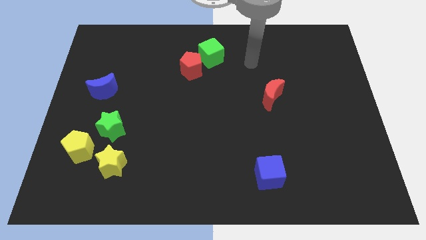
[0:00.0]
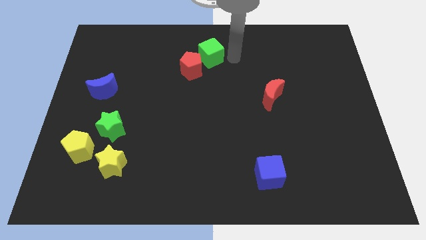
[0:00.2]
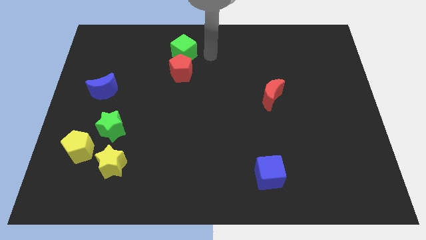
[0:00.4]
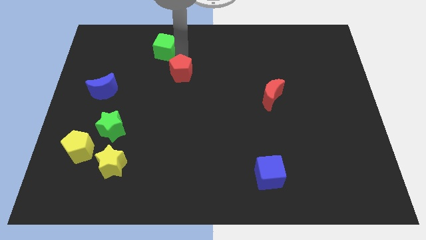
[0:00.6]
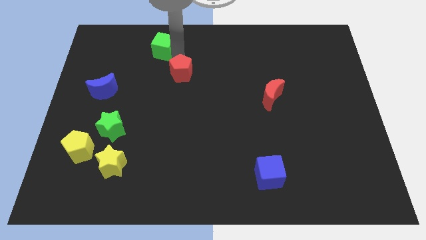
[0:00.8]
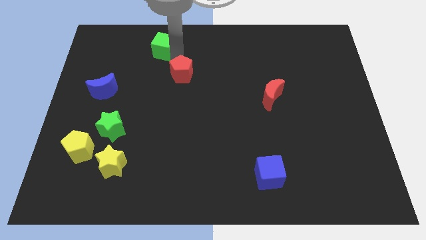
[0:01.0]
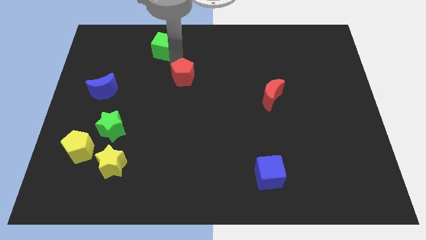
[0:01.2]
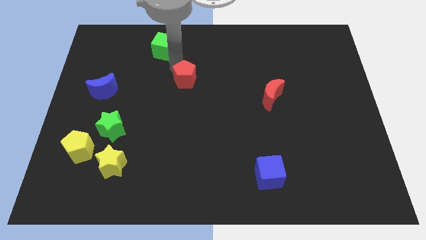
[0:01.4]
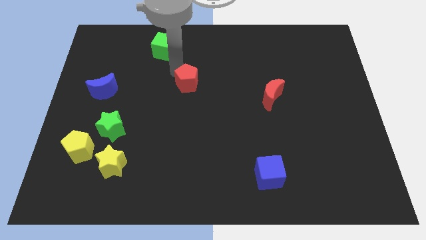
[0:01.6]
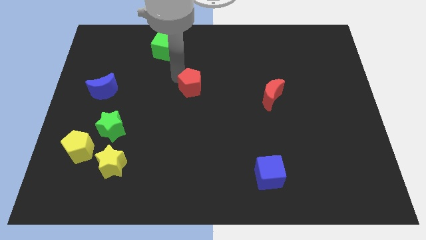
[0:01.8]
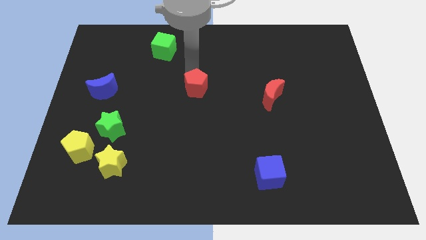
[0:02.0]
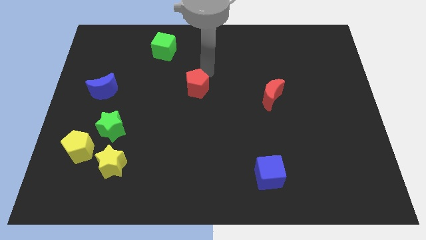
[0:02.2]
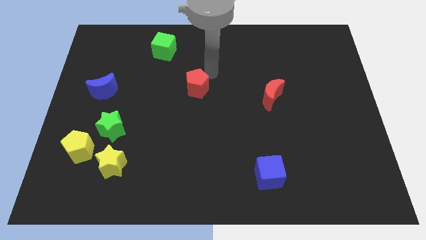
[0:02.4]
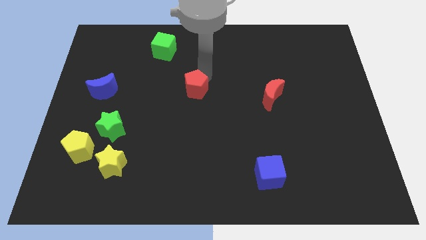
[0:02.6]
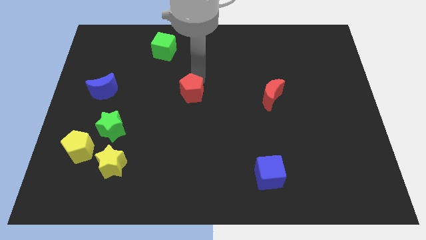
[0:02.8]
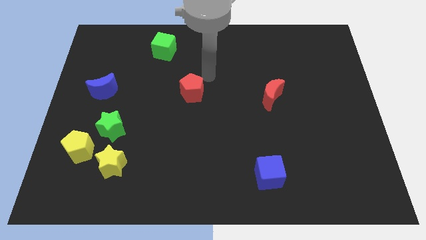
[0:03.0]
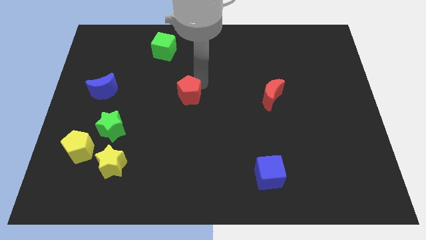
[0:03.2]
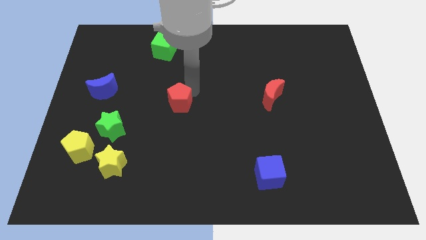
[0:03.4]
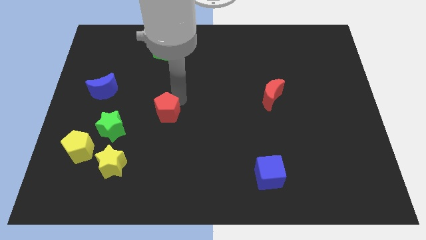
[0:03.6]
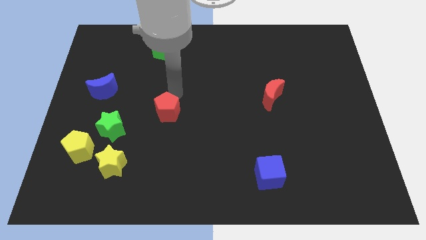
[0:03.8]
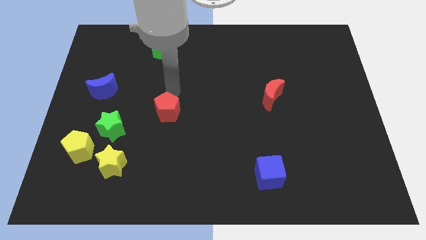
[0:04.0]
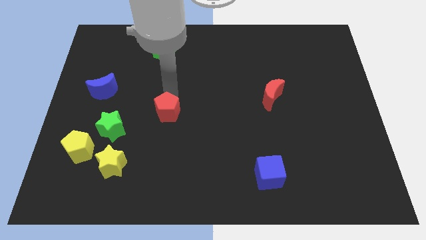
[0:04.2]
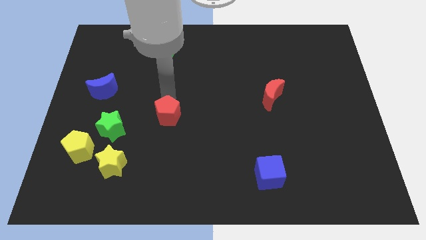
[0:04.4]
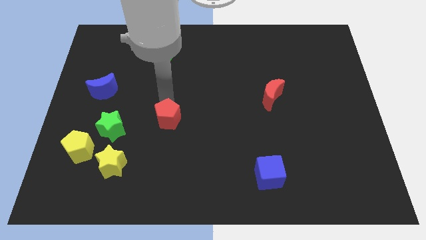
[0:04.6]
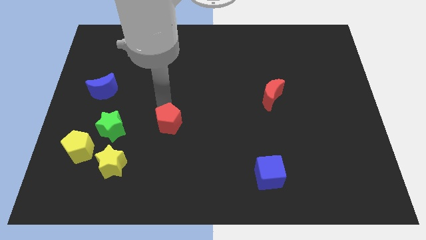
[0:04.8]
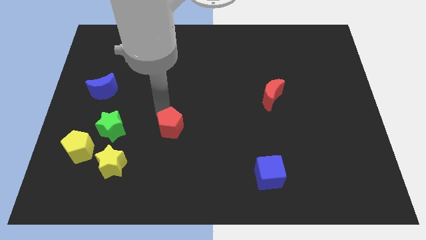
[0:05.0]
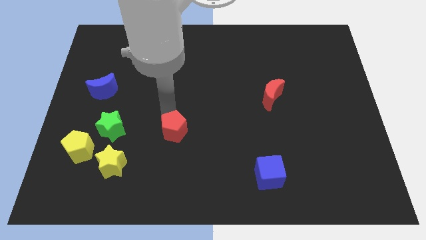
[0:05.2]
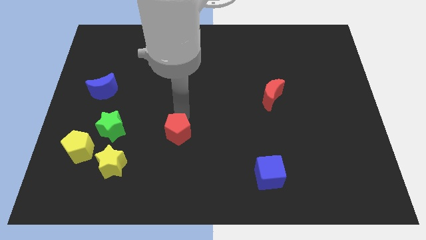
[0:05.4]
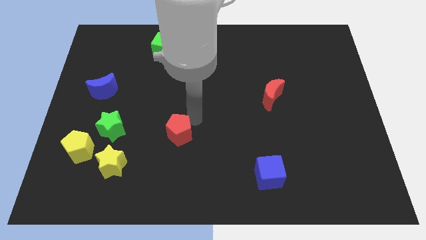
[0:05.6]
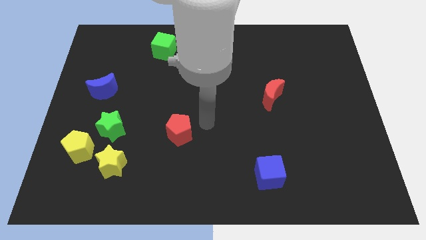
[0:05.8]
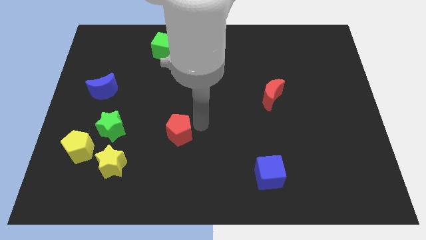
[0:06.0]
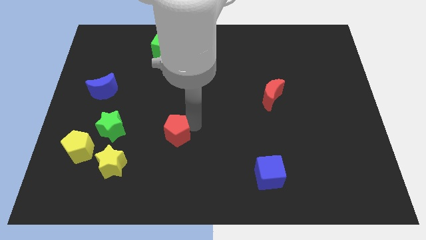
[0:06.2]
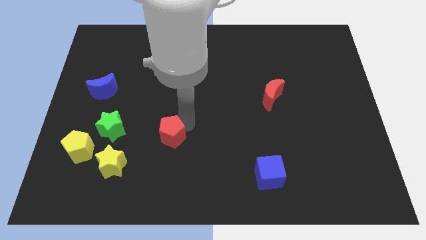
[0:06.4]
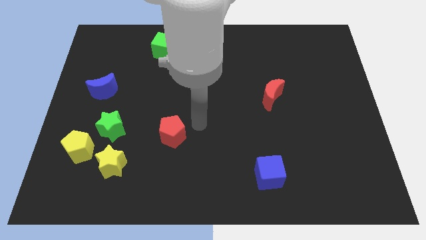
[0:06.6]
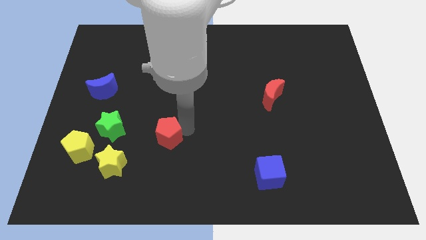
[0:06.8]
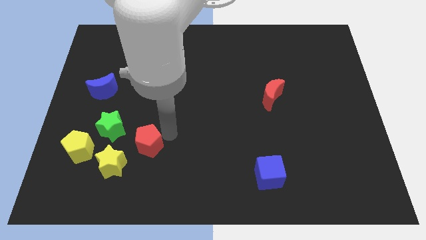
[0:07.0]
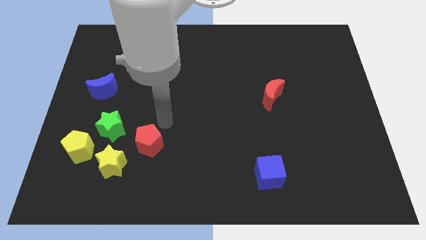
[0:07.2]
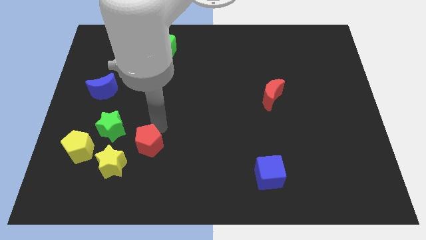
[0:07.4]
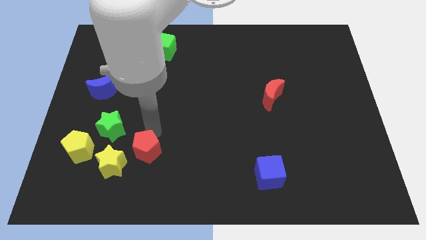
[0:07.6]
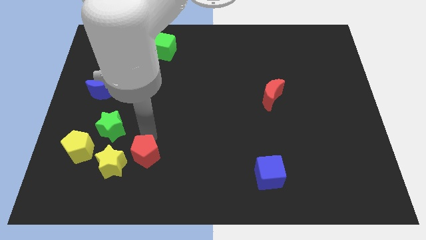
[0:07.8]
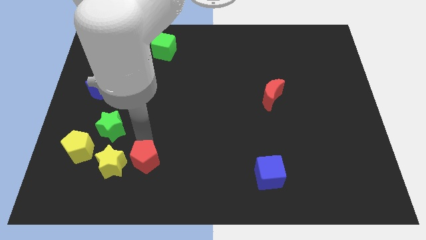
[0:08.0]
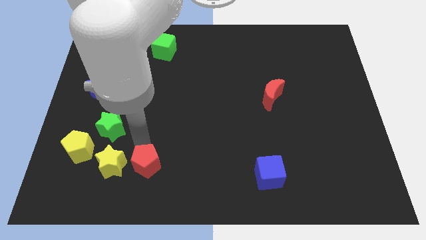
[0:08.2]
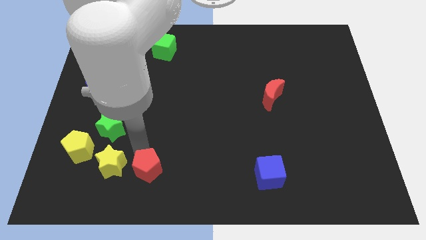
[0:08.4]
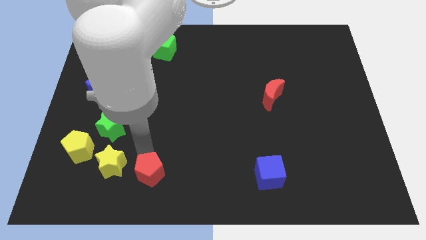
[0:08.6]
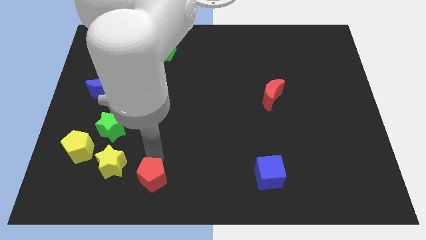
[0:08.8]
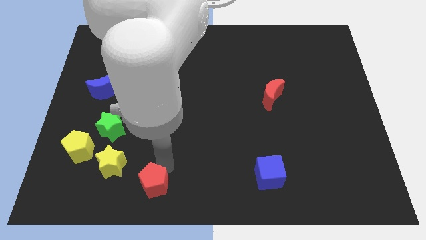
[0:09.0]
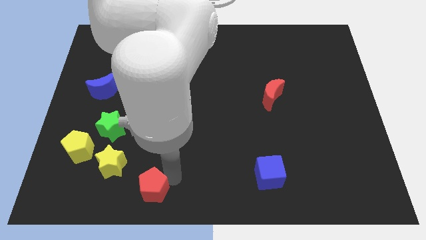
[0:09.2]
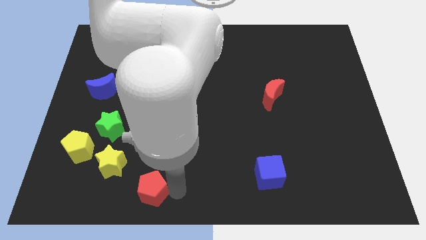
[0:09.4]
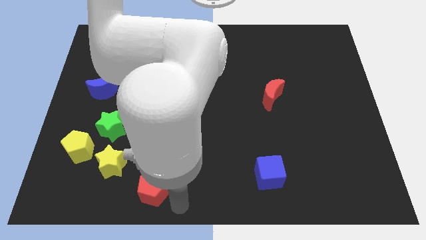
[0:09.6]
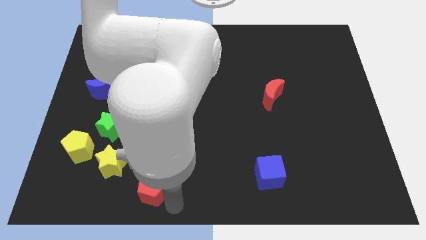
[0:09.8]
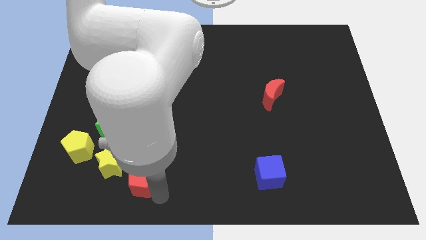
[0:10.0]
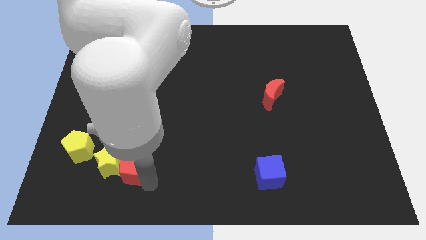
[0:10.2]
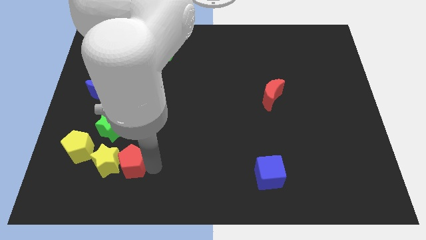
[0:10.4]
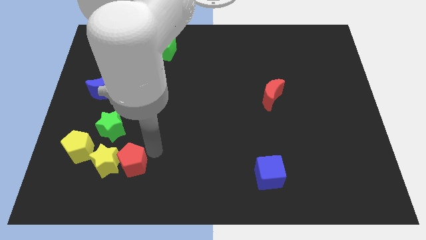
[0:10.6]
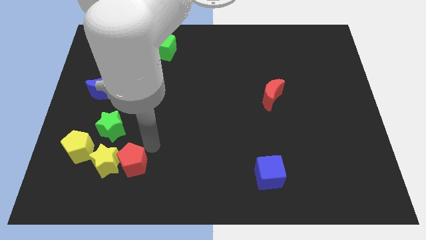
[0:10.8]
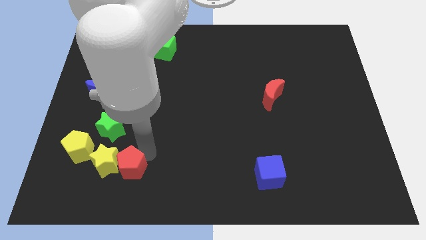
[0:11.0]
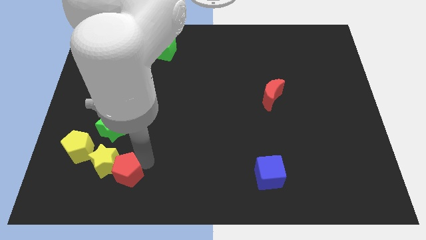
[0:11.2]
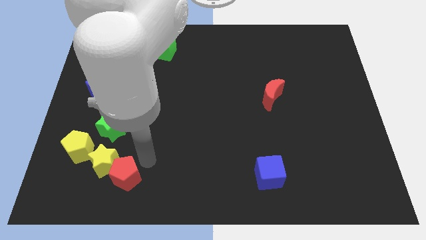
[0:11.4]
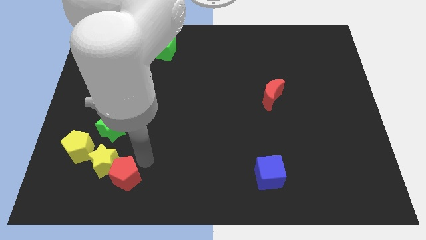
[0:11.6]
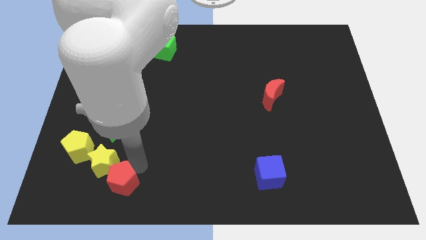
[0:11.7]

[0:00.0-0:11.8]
slide the red pentagon to the bottom of the green star

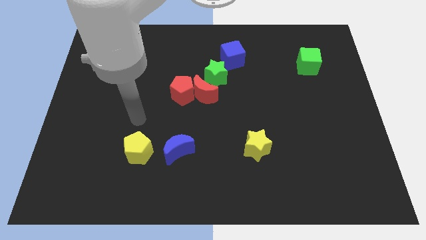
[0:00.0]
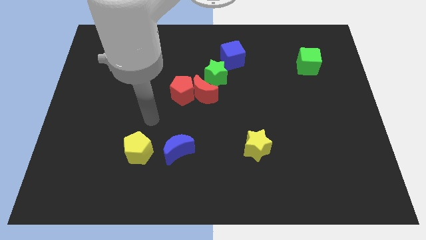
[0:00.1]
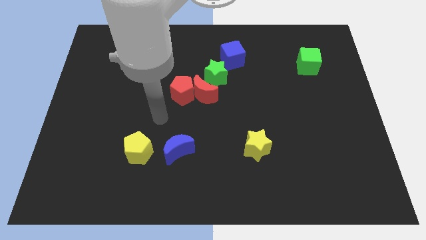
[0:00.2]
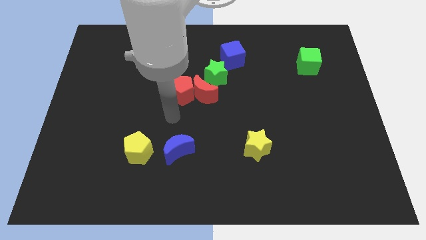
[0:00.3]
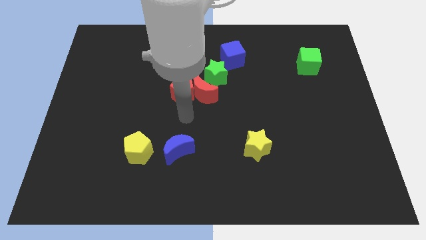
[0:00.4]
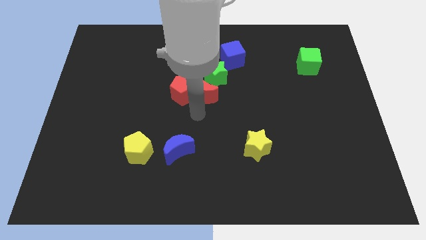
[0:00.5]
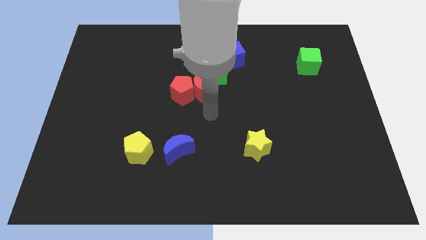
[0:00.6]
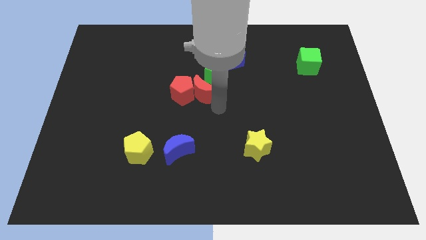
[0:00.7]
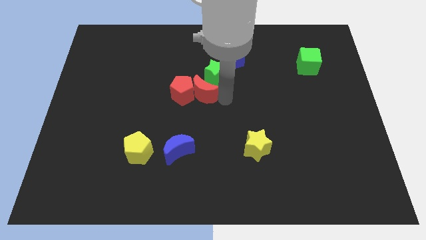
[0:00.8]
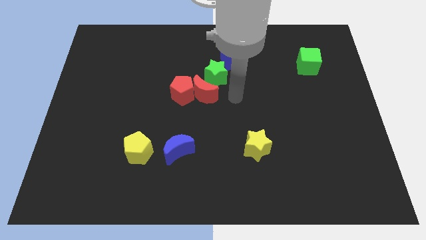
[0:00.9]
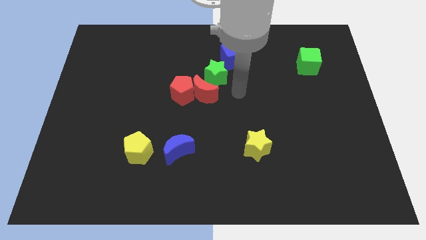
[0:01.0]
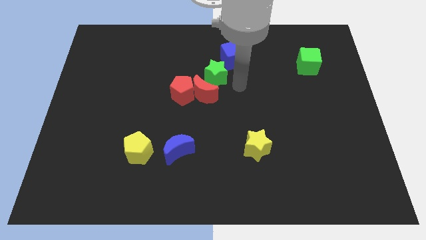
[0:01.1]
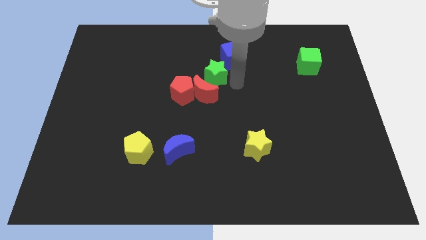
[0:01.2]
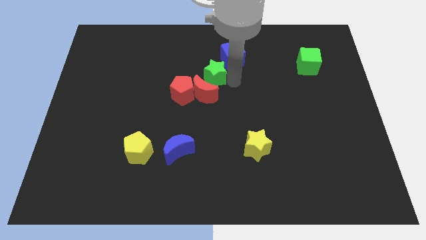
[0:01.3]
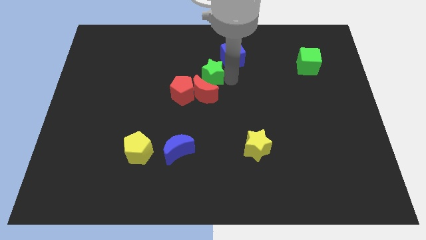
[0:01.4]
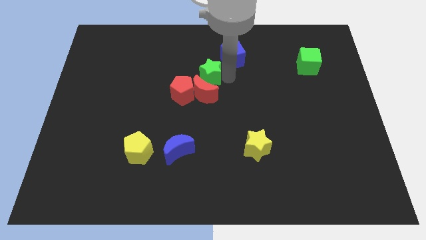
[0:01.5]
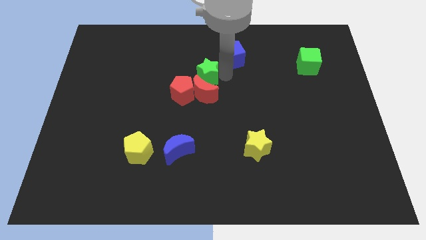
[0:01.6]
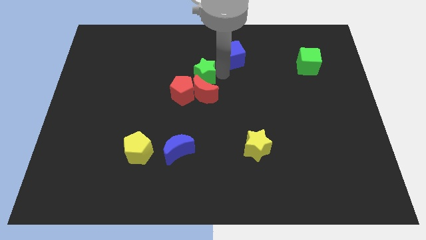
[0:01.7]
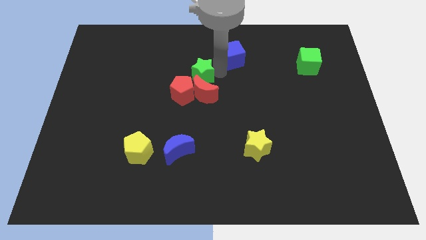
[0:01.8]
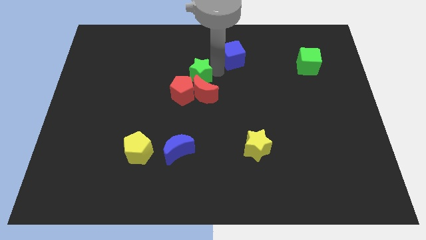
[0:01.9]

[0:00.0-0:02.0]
push the green star to the top of the red pentagon
